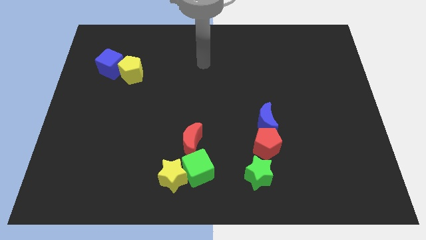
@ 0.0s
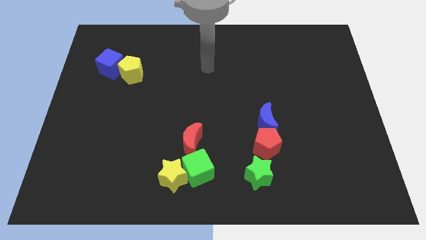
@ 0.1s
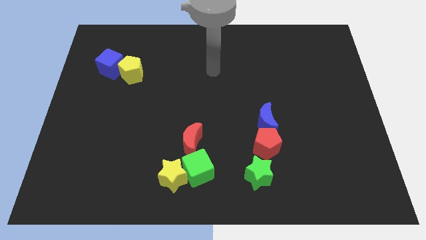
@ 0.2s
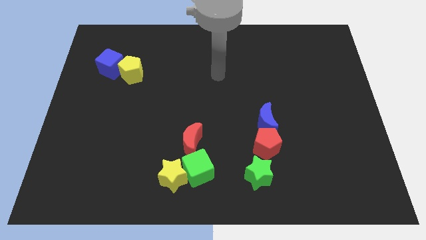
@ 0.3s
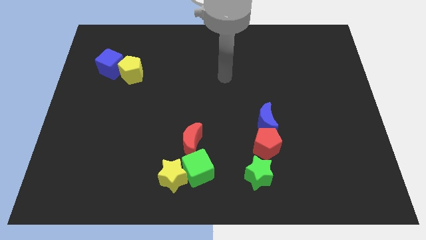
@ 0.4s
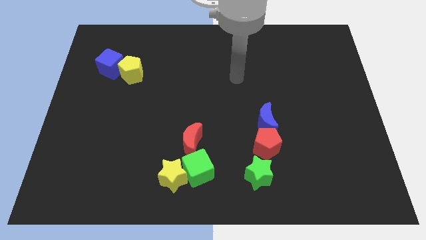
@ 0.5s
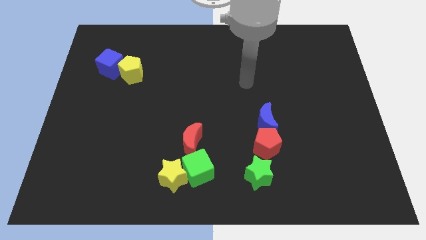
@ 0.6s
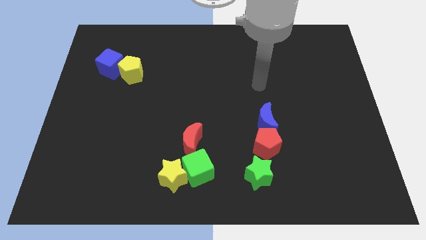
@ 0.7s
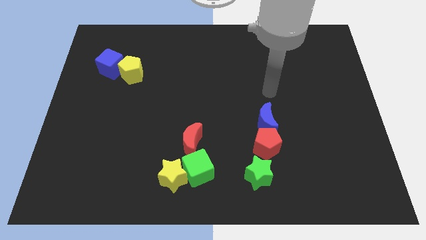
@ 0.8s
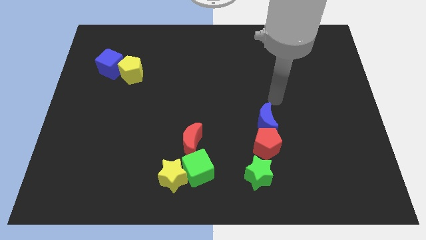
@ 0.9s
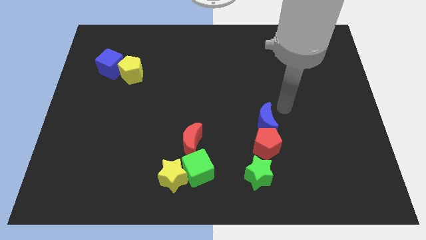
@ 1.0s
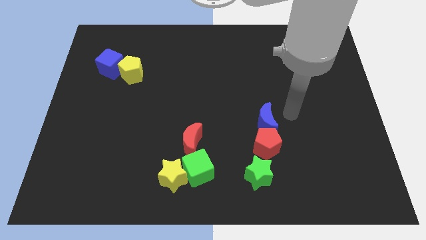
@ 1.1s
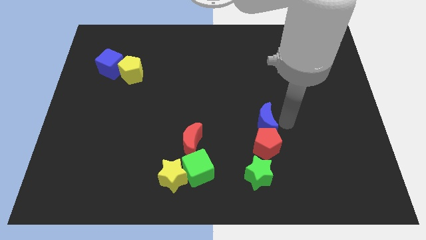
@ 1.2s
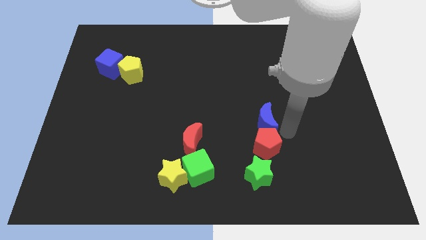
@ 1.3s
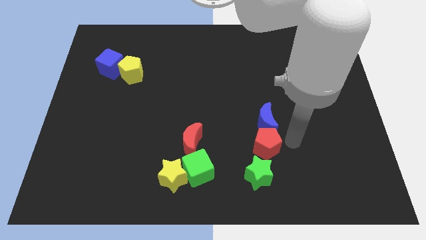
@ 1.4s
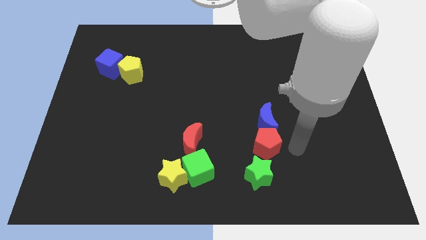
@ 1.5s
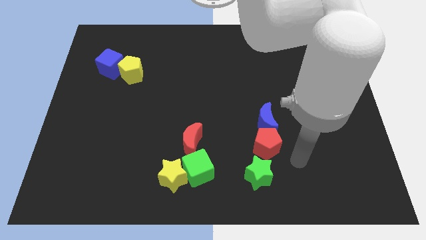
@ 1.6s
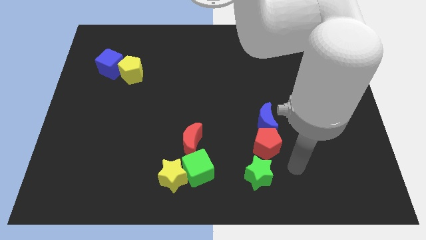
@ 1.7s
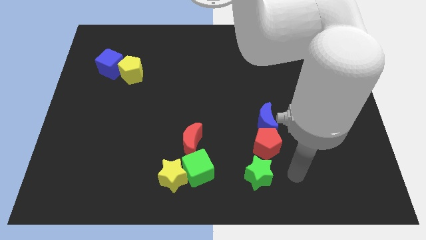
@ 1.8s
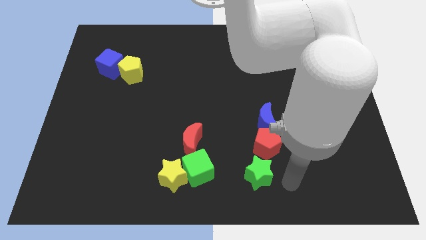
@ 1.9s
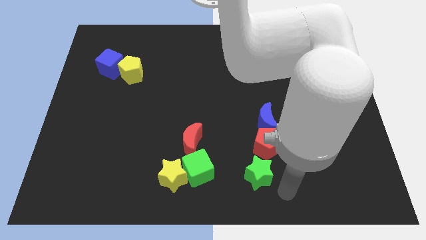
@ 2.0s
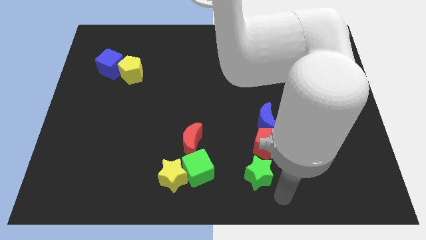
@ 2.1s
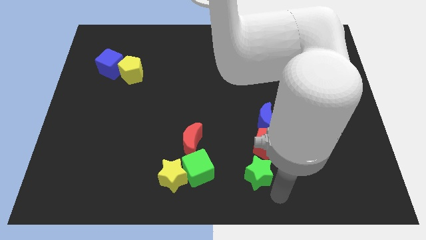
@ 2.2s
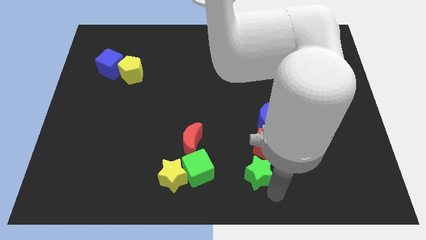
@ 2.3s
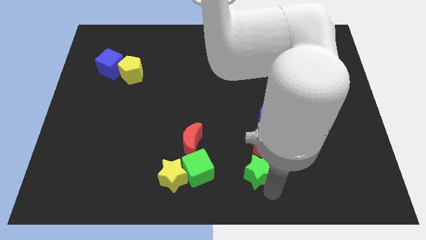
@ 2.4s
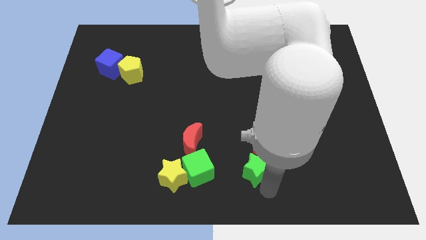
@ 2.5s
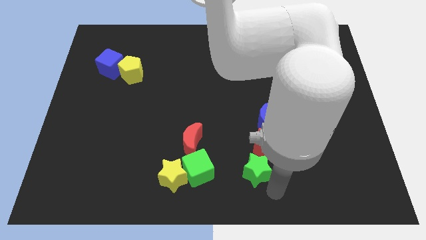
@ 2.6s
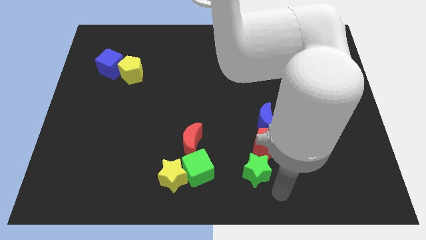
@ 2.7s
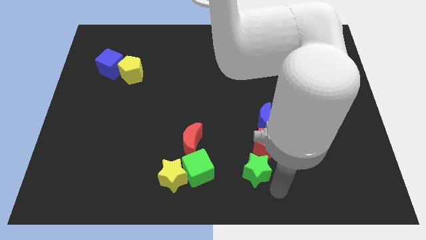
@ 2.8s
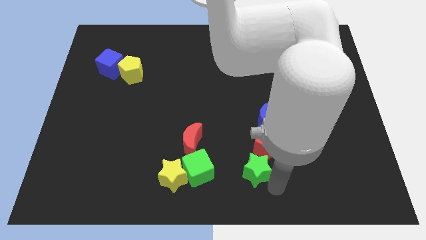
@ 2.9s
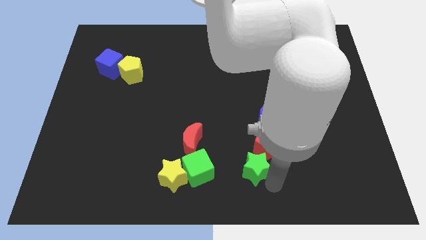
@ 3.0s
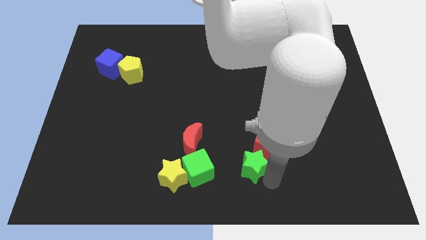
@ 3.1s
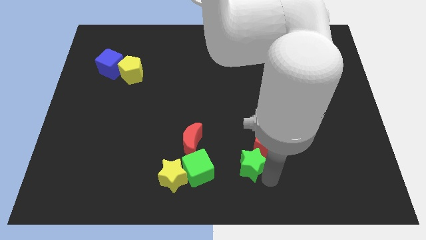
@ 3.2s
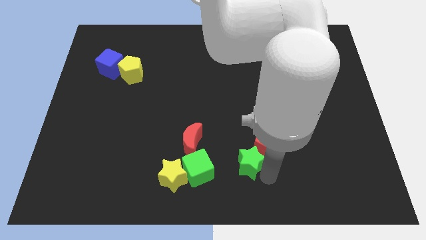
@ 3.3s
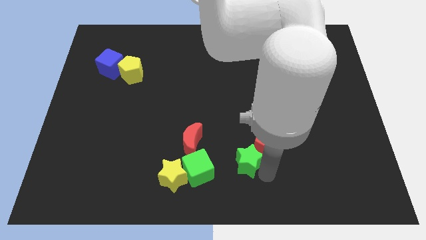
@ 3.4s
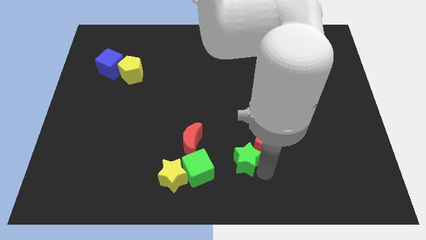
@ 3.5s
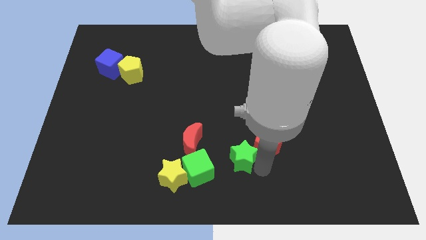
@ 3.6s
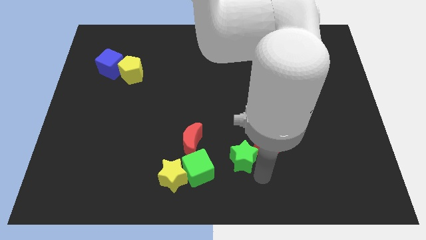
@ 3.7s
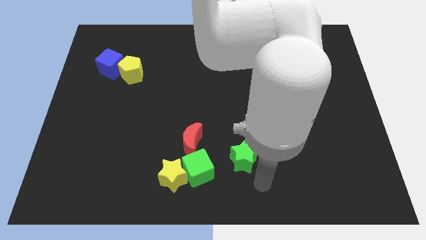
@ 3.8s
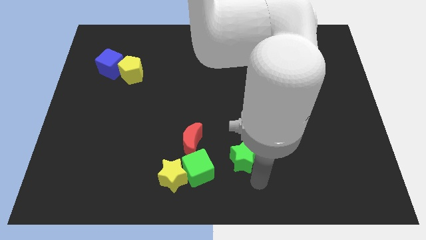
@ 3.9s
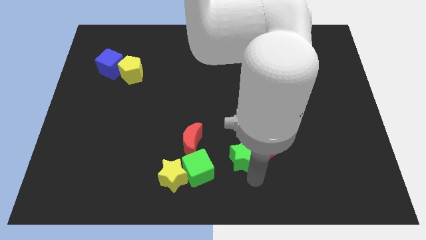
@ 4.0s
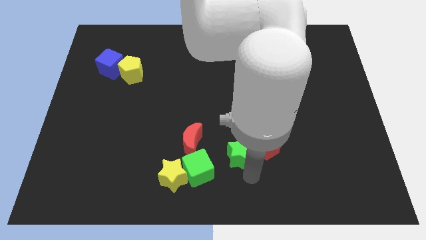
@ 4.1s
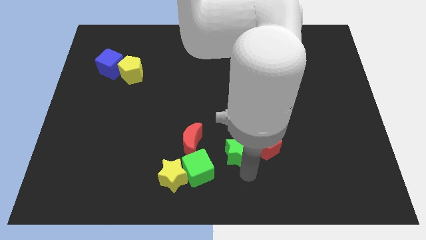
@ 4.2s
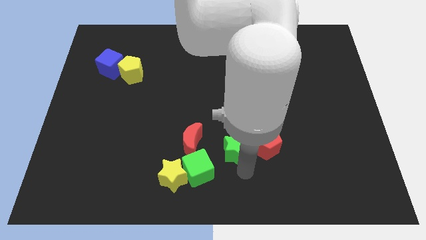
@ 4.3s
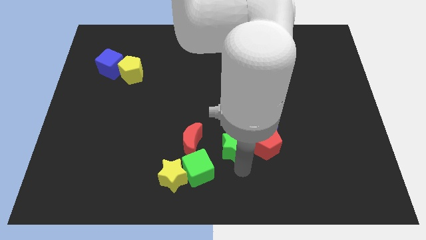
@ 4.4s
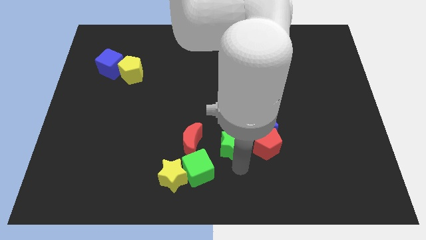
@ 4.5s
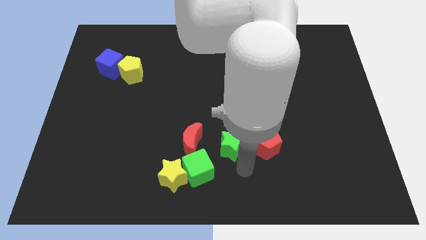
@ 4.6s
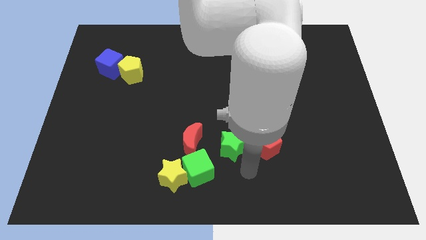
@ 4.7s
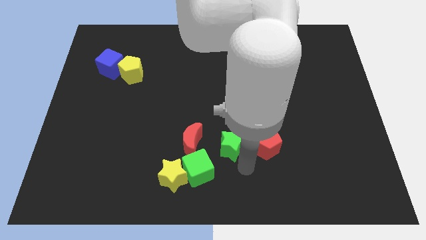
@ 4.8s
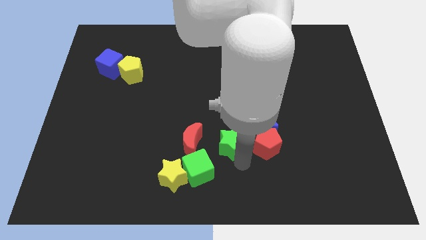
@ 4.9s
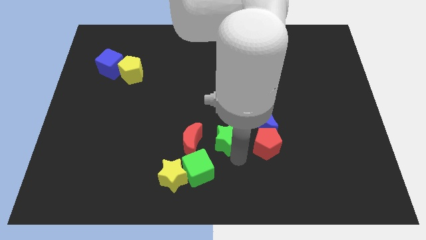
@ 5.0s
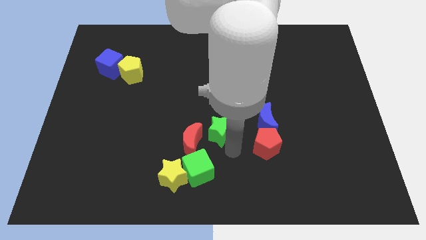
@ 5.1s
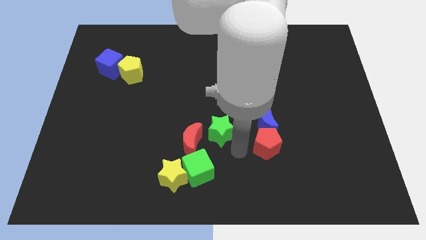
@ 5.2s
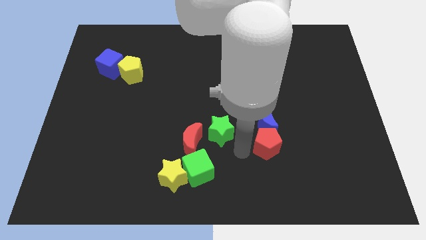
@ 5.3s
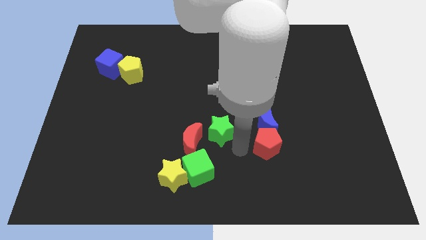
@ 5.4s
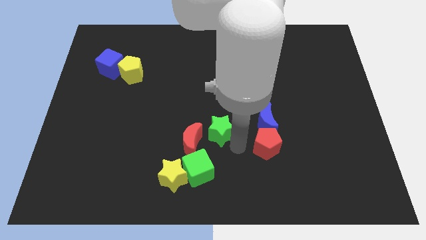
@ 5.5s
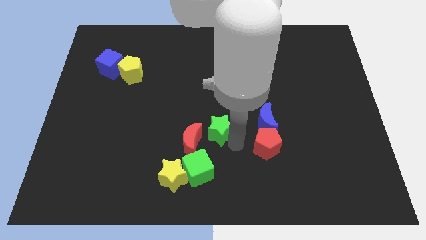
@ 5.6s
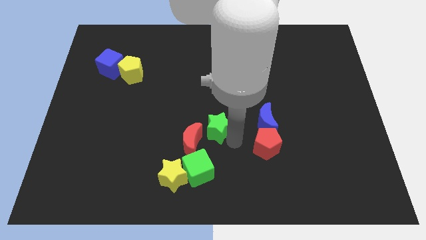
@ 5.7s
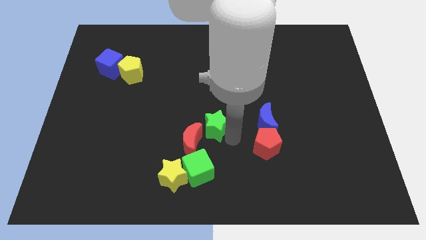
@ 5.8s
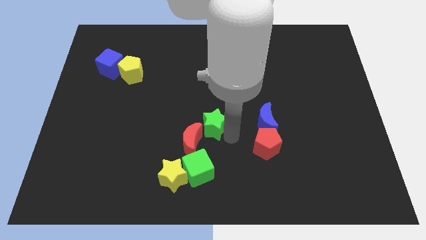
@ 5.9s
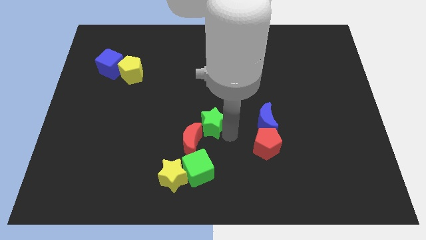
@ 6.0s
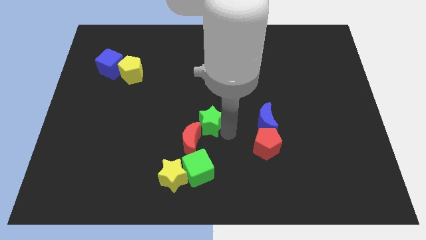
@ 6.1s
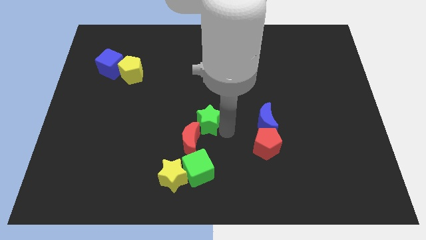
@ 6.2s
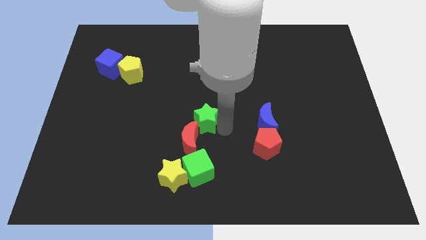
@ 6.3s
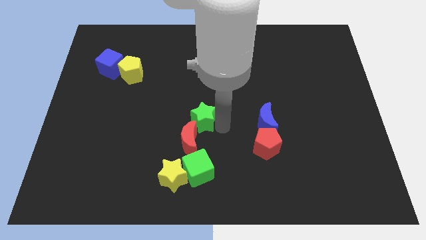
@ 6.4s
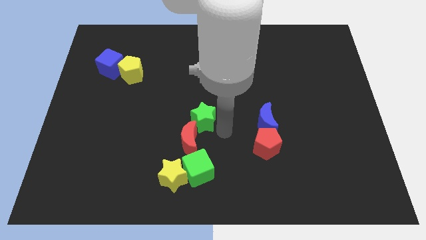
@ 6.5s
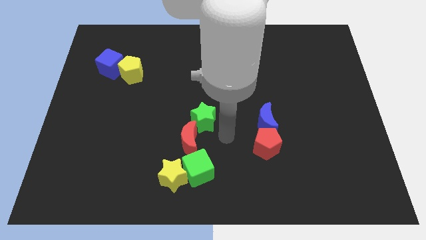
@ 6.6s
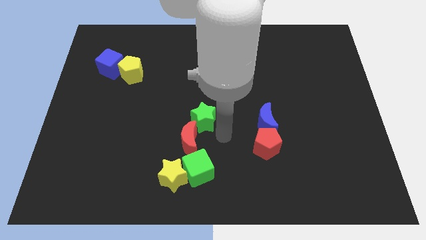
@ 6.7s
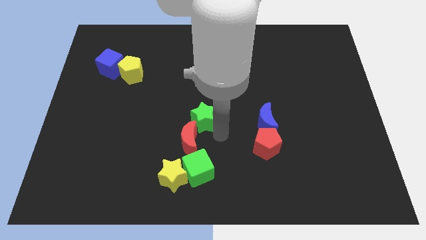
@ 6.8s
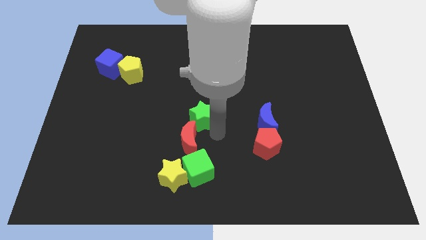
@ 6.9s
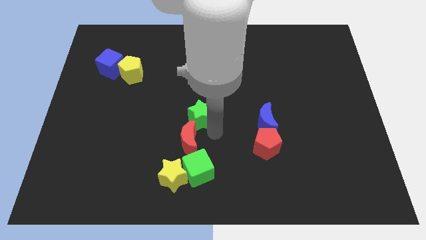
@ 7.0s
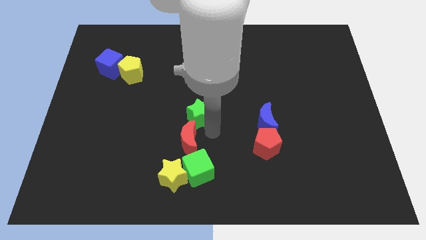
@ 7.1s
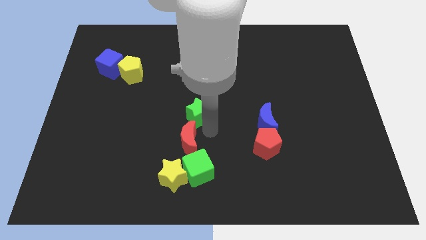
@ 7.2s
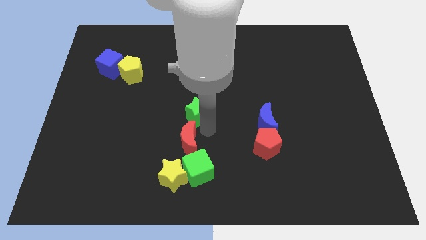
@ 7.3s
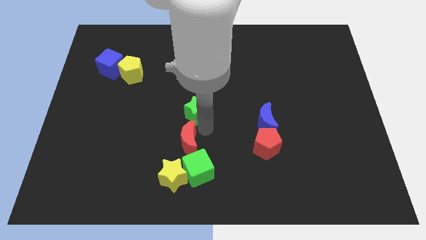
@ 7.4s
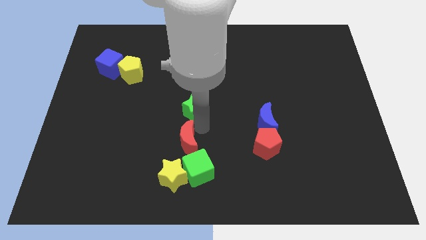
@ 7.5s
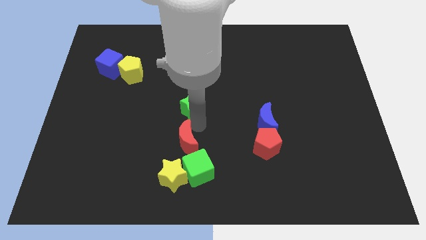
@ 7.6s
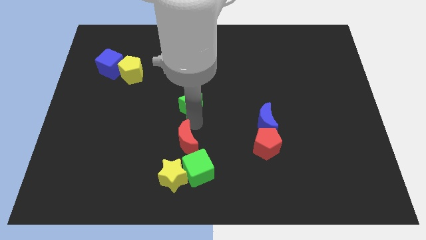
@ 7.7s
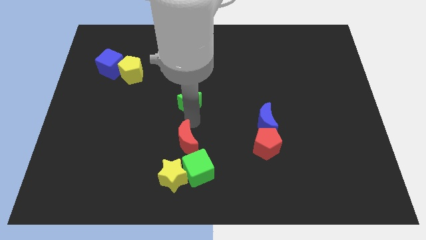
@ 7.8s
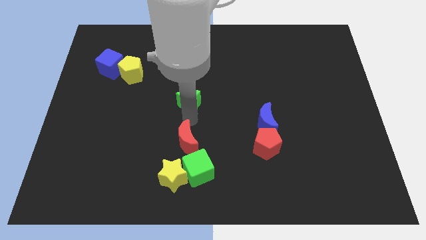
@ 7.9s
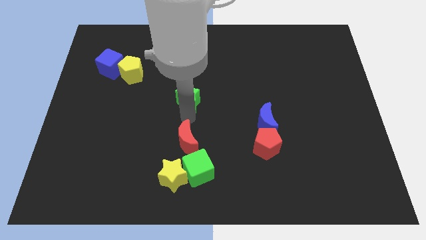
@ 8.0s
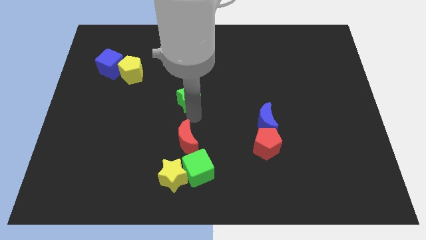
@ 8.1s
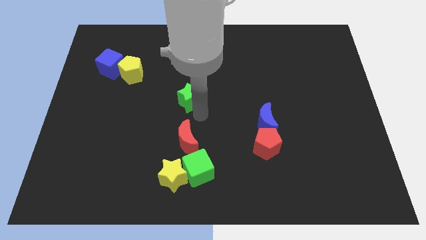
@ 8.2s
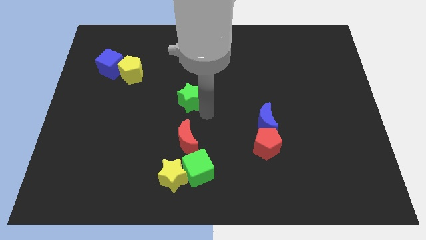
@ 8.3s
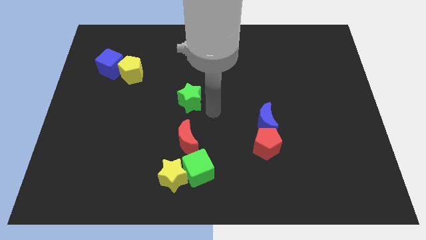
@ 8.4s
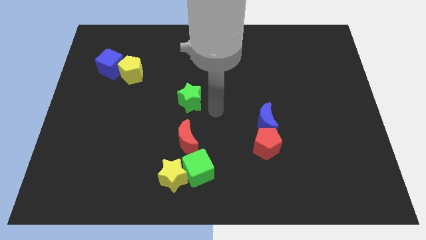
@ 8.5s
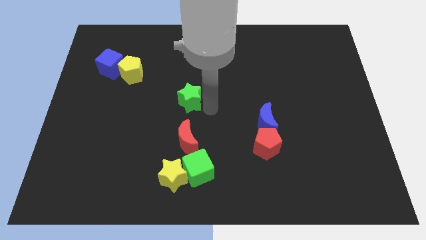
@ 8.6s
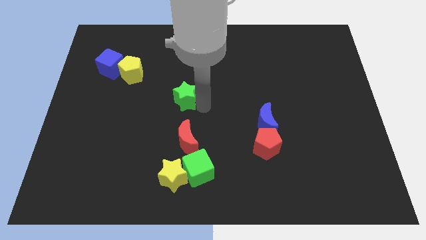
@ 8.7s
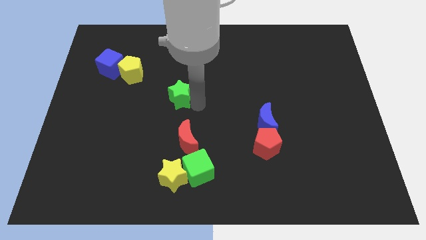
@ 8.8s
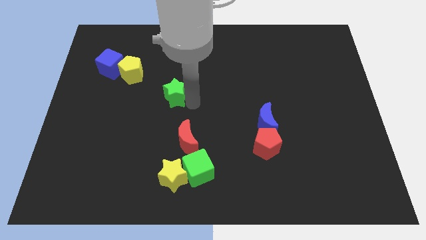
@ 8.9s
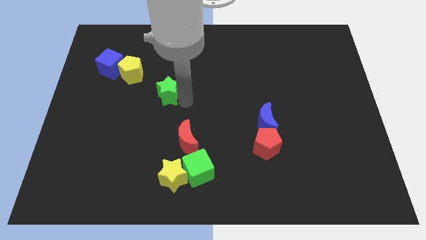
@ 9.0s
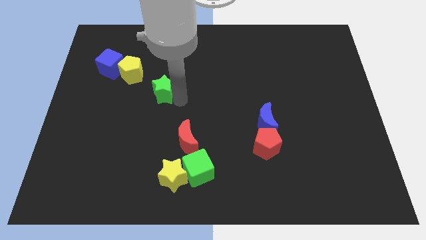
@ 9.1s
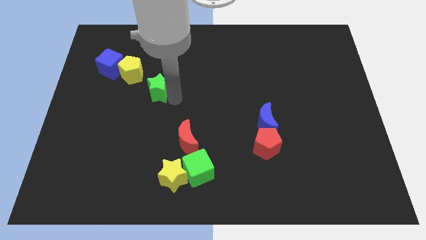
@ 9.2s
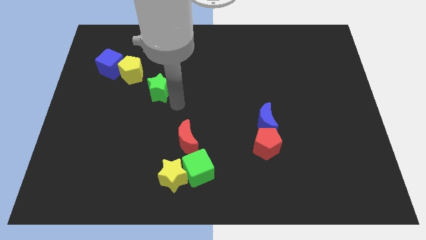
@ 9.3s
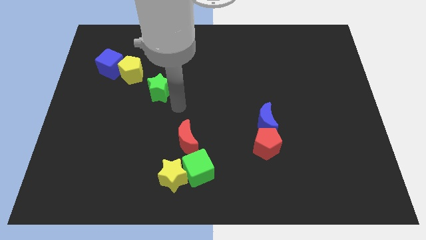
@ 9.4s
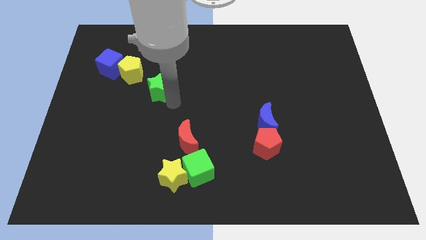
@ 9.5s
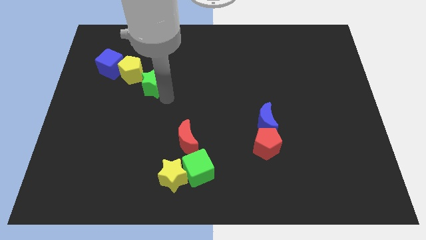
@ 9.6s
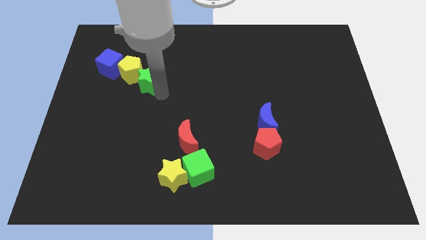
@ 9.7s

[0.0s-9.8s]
put the green star to the yellow pentagon
